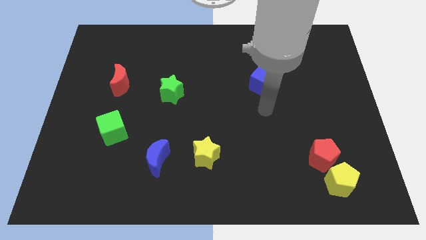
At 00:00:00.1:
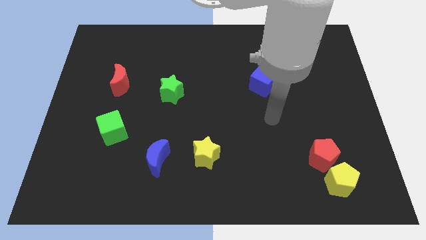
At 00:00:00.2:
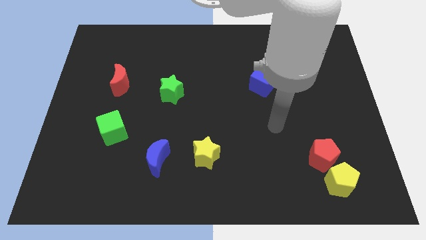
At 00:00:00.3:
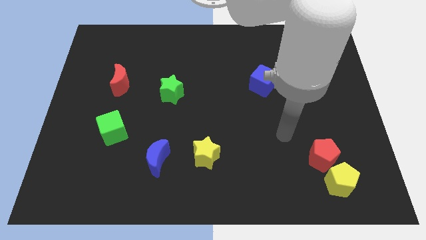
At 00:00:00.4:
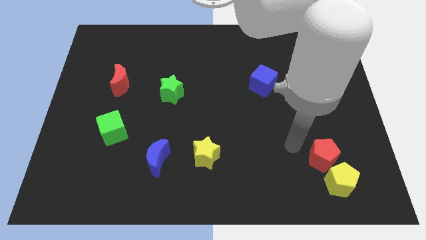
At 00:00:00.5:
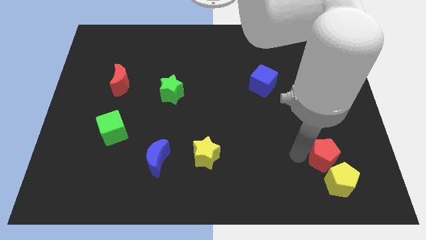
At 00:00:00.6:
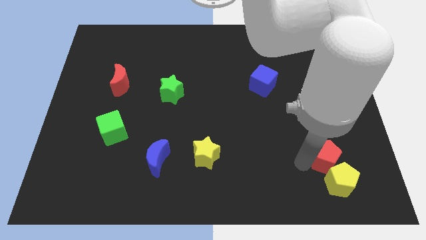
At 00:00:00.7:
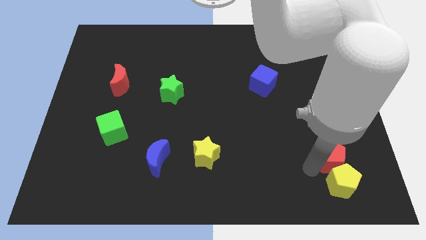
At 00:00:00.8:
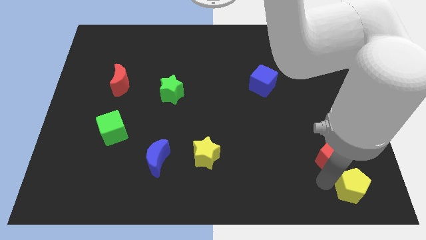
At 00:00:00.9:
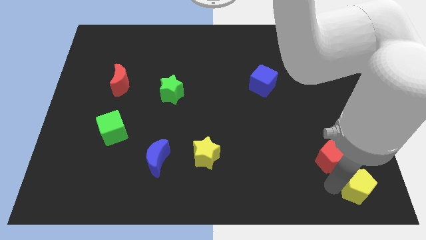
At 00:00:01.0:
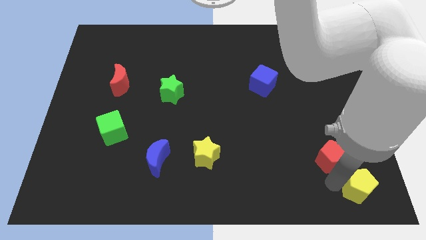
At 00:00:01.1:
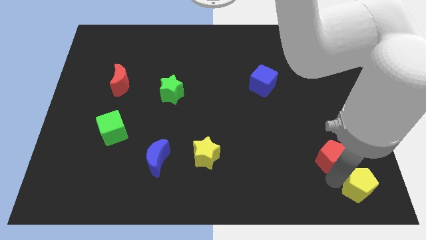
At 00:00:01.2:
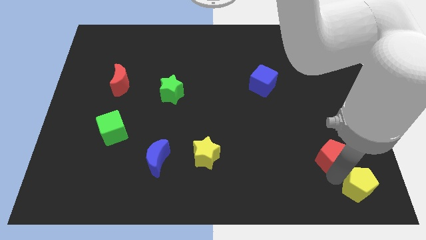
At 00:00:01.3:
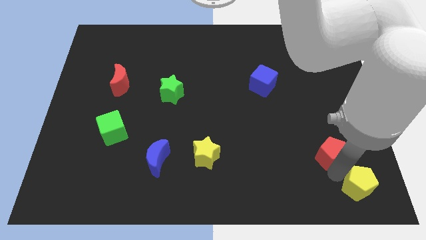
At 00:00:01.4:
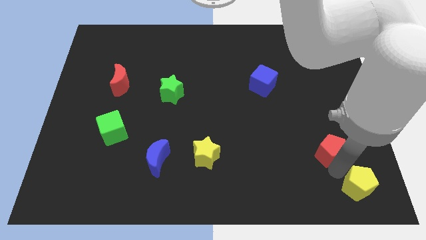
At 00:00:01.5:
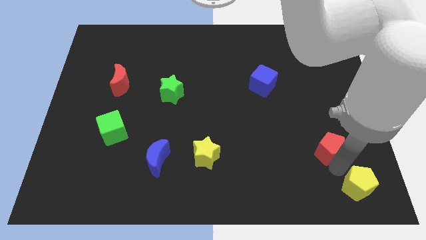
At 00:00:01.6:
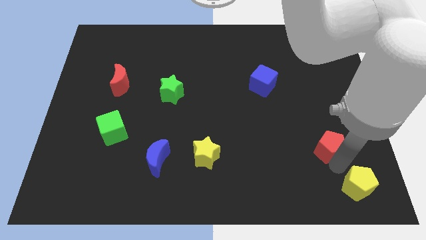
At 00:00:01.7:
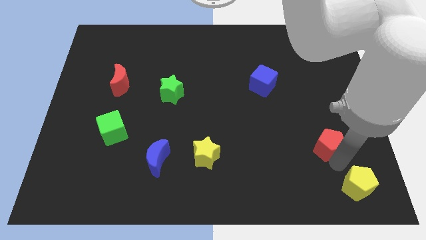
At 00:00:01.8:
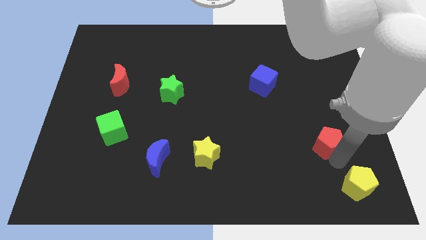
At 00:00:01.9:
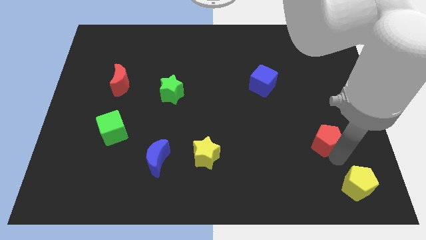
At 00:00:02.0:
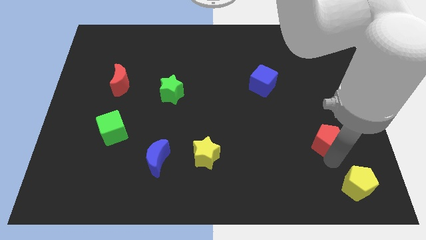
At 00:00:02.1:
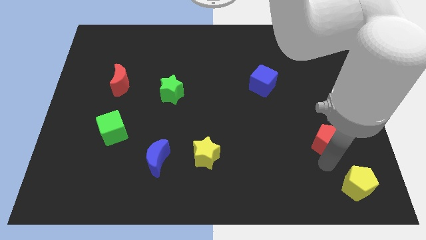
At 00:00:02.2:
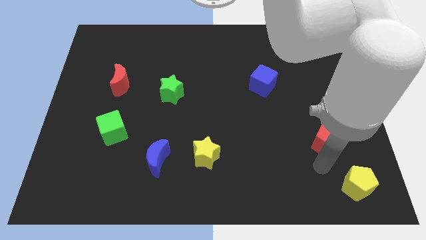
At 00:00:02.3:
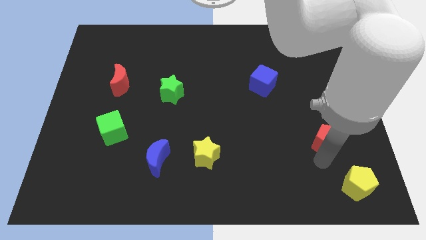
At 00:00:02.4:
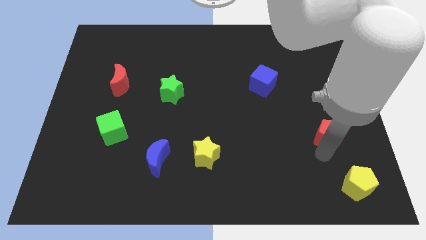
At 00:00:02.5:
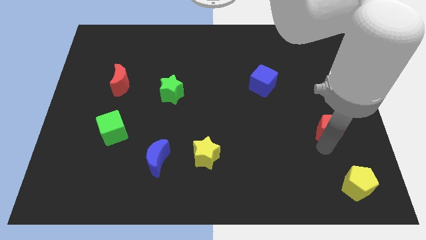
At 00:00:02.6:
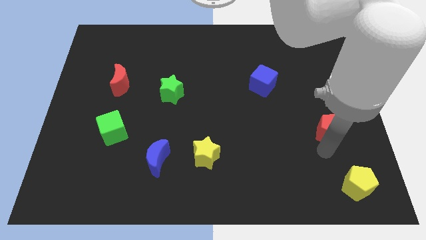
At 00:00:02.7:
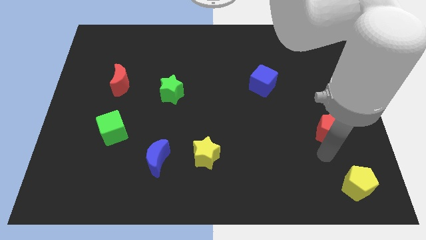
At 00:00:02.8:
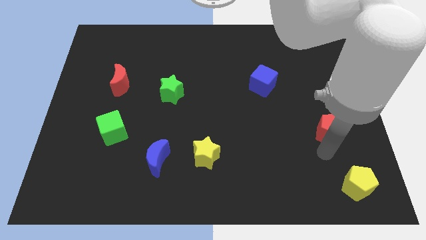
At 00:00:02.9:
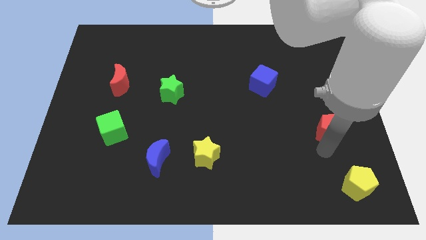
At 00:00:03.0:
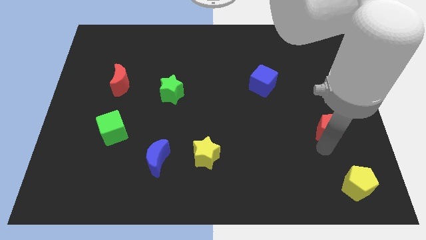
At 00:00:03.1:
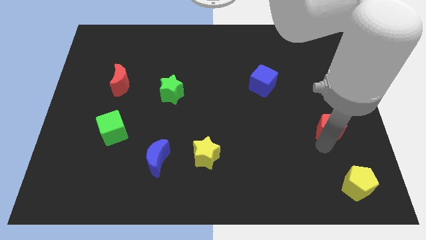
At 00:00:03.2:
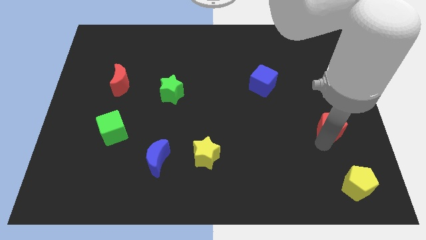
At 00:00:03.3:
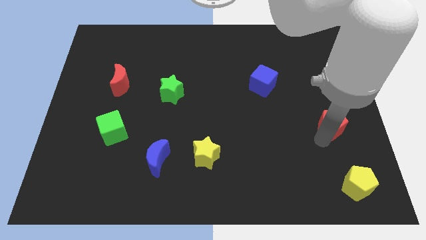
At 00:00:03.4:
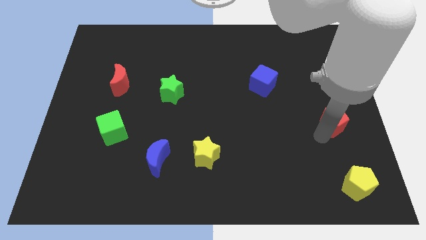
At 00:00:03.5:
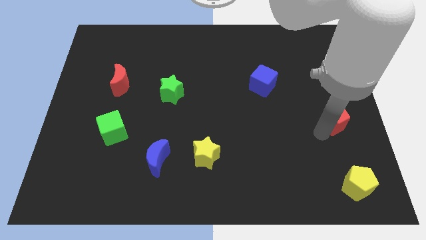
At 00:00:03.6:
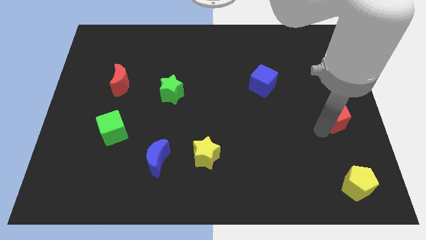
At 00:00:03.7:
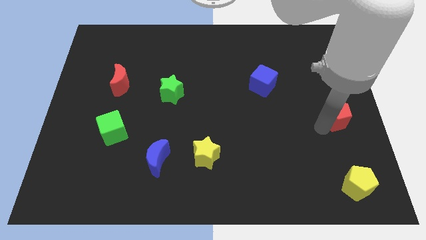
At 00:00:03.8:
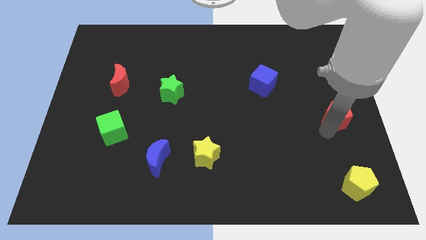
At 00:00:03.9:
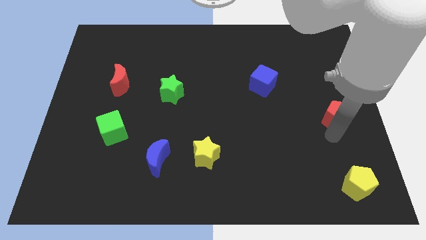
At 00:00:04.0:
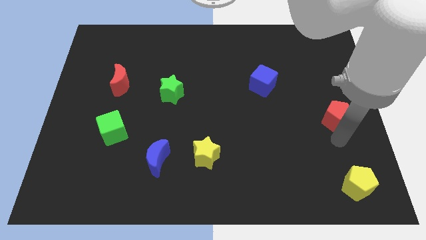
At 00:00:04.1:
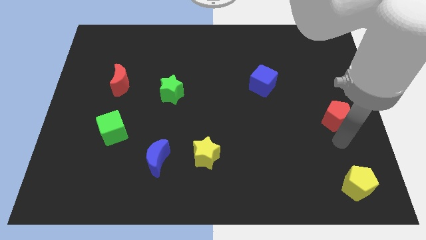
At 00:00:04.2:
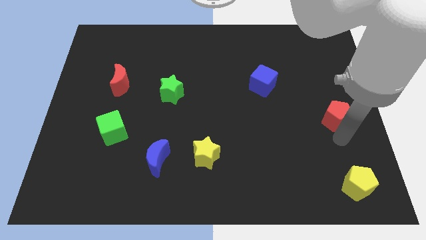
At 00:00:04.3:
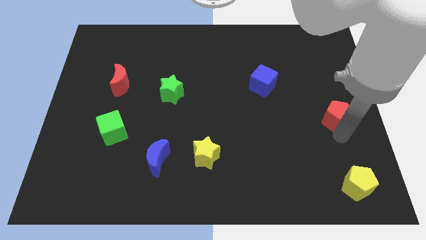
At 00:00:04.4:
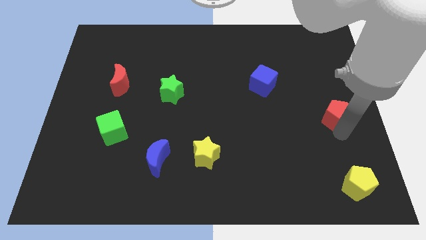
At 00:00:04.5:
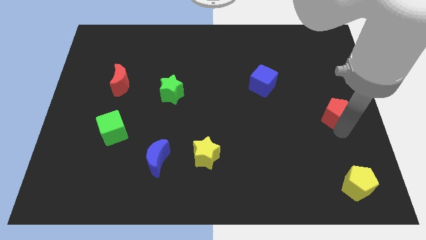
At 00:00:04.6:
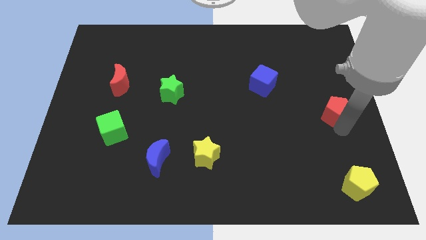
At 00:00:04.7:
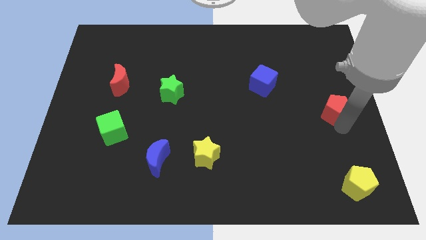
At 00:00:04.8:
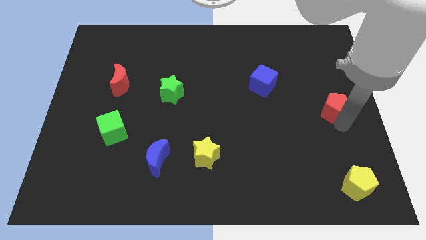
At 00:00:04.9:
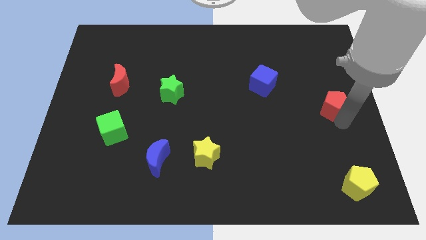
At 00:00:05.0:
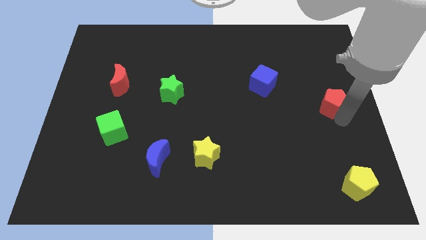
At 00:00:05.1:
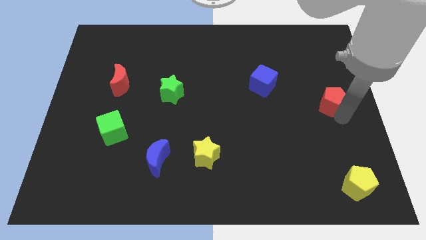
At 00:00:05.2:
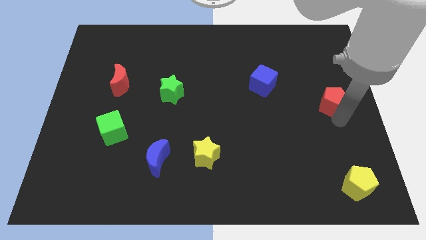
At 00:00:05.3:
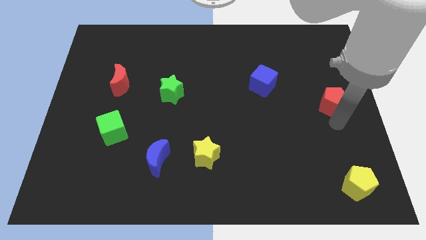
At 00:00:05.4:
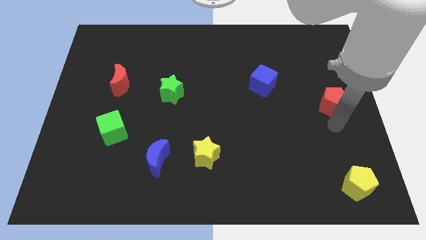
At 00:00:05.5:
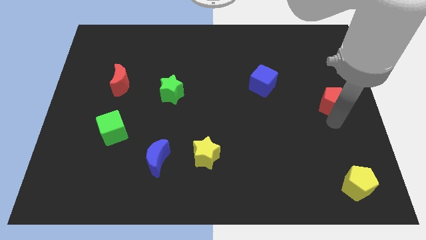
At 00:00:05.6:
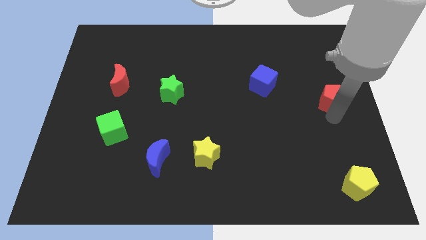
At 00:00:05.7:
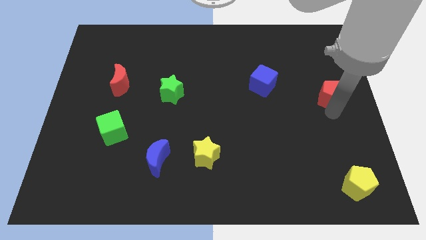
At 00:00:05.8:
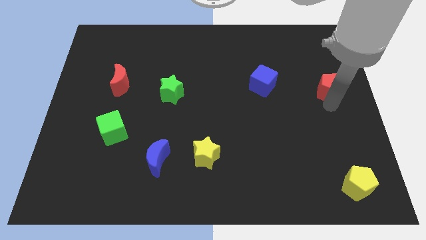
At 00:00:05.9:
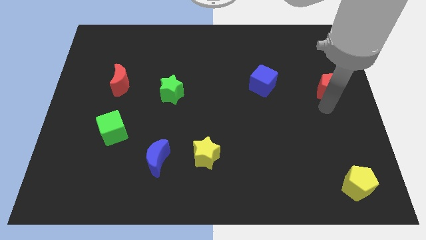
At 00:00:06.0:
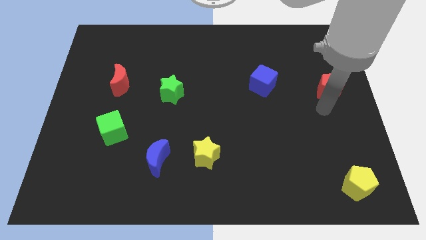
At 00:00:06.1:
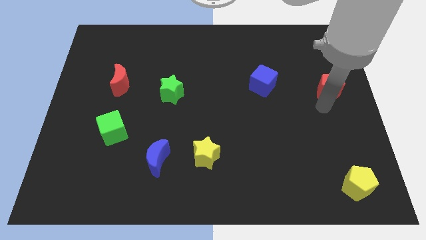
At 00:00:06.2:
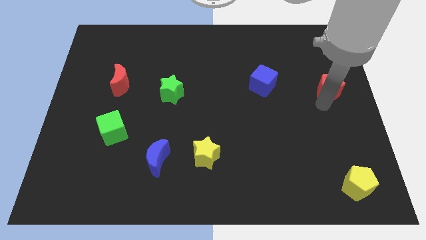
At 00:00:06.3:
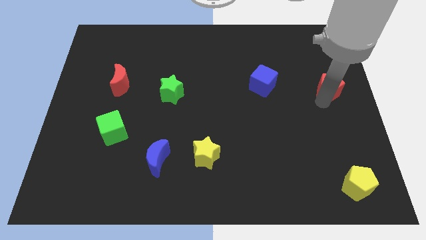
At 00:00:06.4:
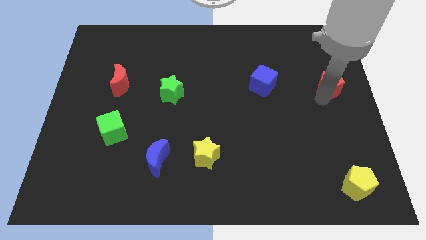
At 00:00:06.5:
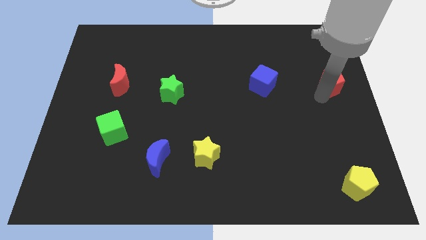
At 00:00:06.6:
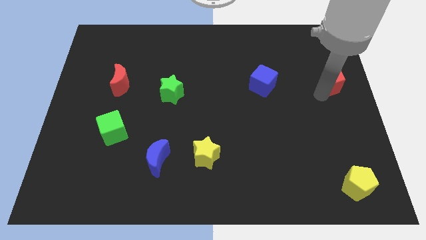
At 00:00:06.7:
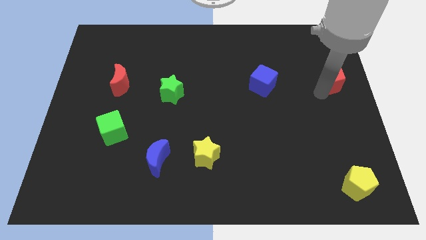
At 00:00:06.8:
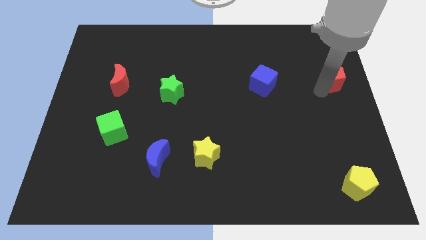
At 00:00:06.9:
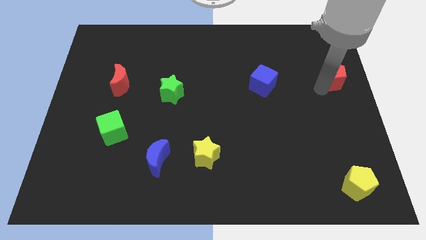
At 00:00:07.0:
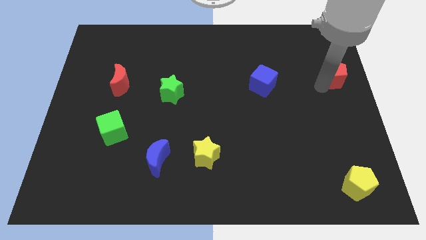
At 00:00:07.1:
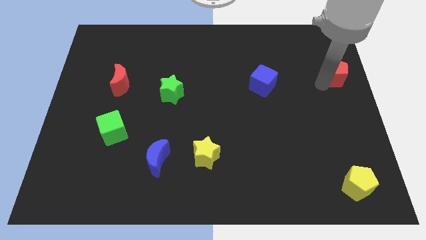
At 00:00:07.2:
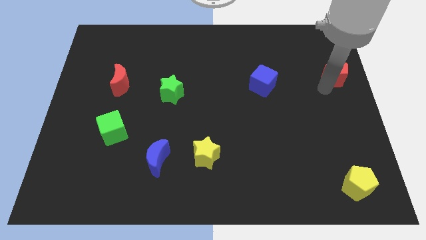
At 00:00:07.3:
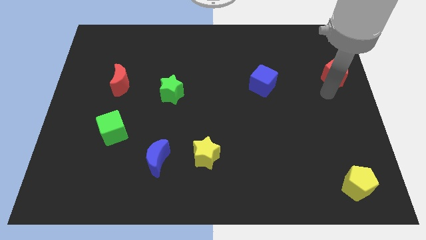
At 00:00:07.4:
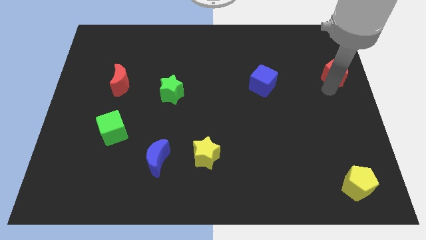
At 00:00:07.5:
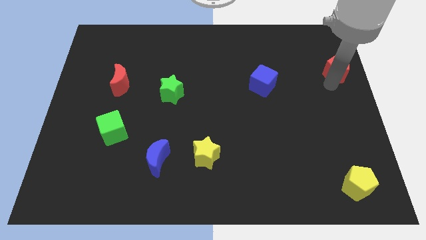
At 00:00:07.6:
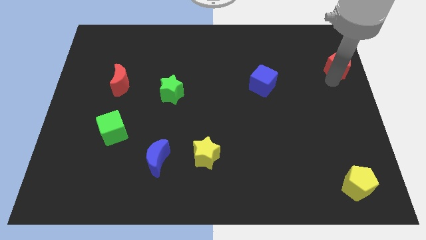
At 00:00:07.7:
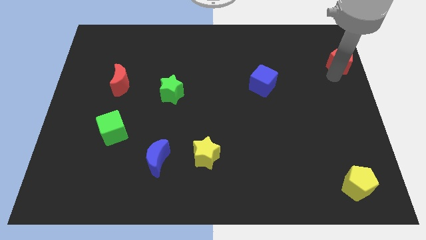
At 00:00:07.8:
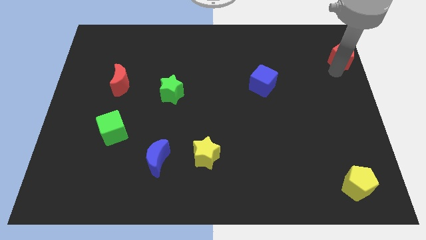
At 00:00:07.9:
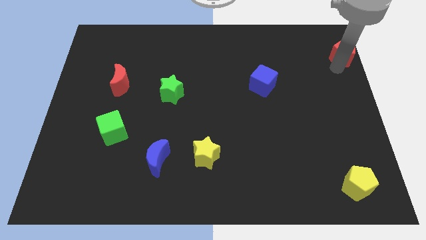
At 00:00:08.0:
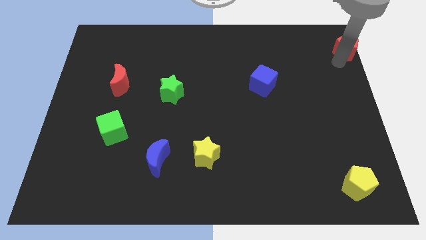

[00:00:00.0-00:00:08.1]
move the red pentagon to the top right
